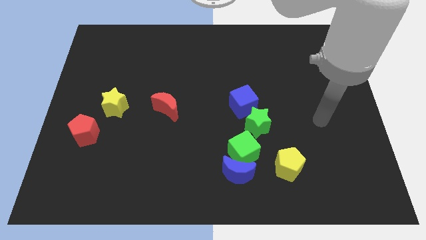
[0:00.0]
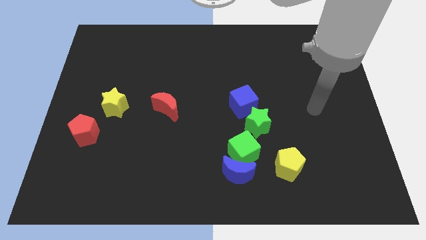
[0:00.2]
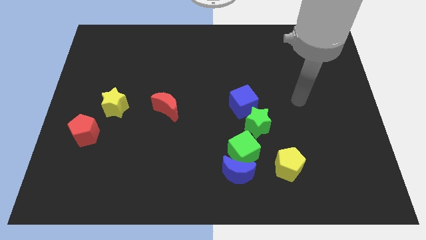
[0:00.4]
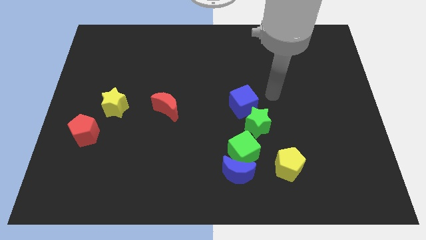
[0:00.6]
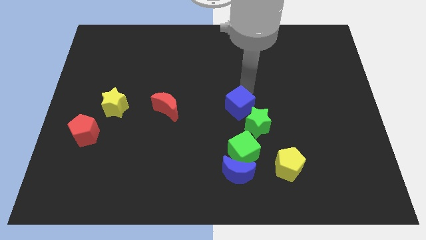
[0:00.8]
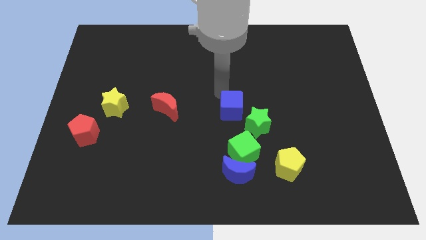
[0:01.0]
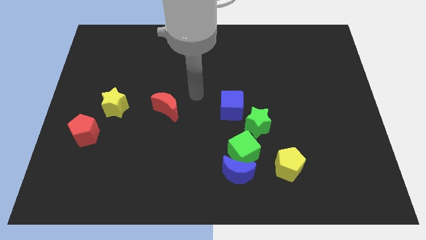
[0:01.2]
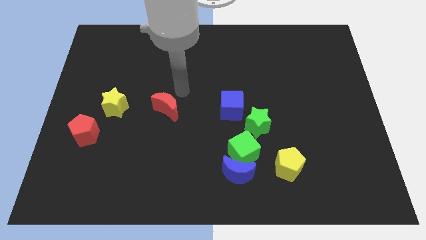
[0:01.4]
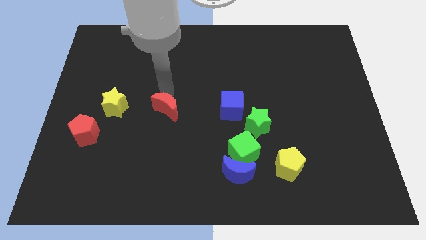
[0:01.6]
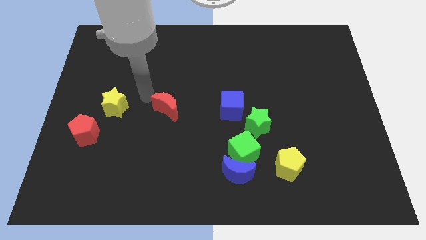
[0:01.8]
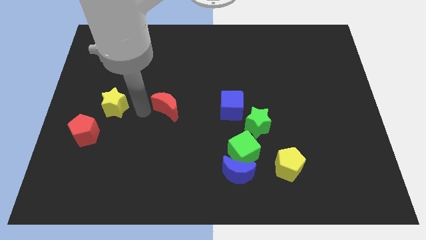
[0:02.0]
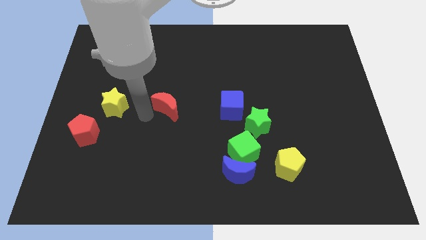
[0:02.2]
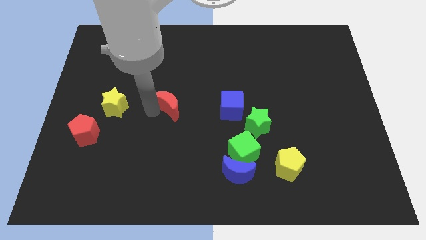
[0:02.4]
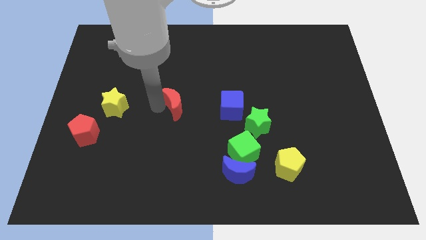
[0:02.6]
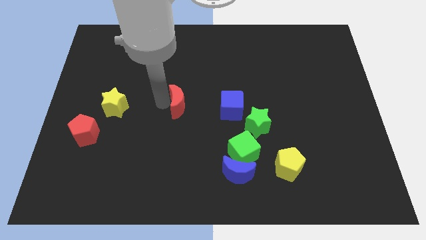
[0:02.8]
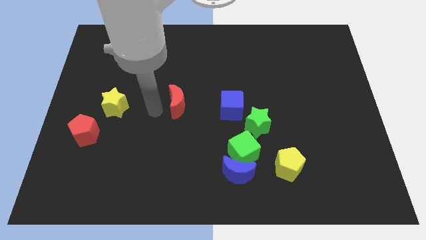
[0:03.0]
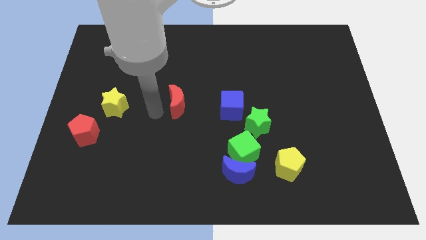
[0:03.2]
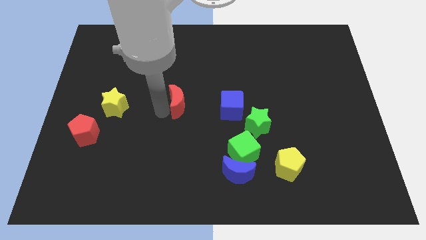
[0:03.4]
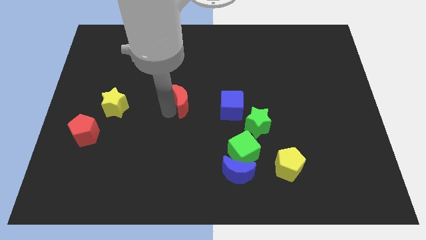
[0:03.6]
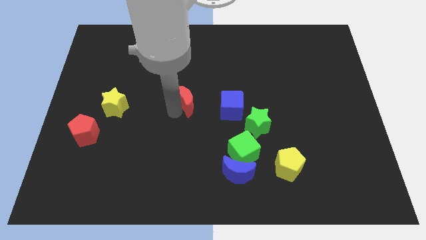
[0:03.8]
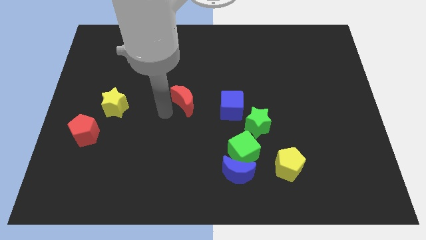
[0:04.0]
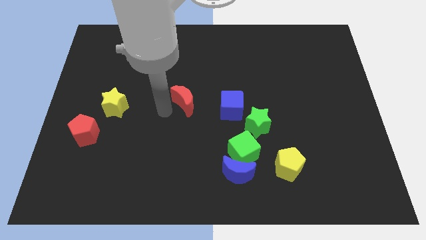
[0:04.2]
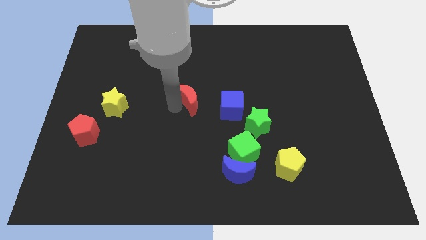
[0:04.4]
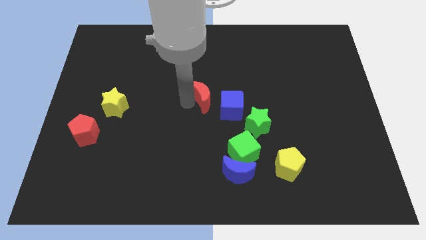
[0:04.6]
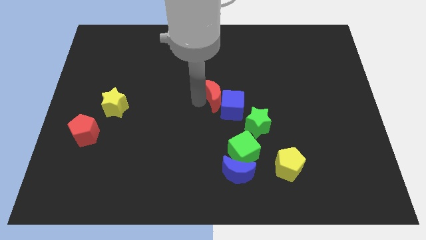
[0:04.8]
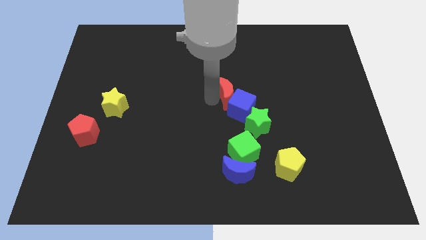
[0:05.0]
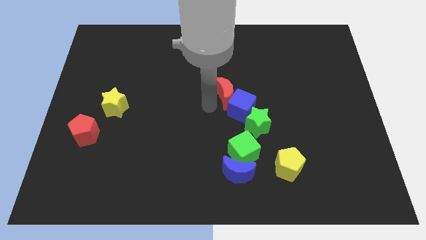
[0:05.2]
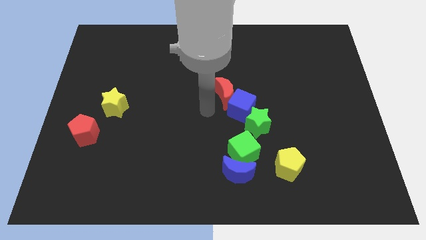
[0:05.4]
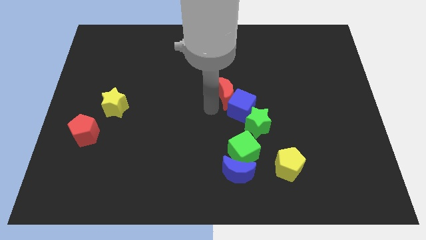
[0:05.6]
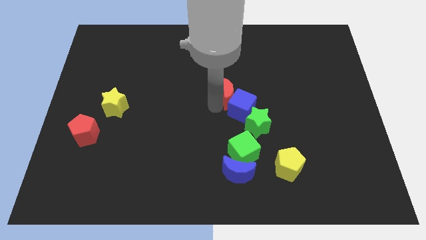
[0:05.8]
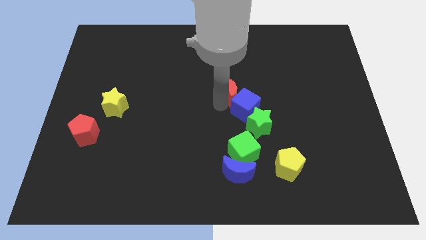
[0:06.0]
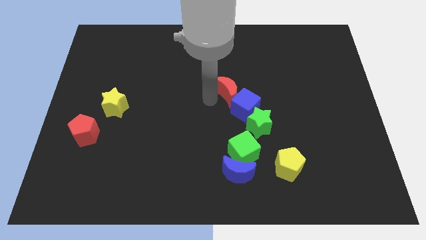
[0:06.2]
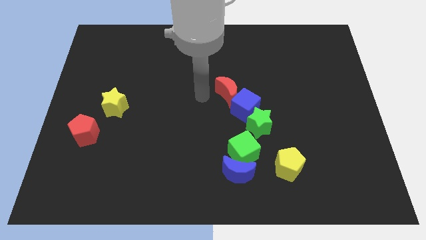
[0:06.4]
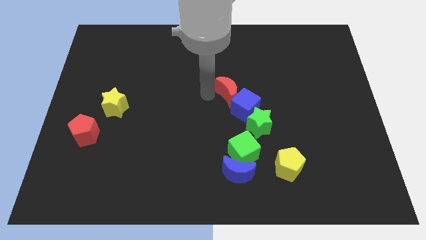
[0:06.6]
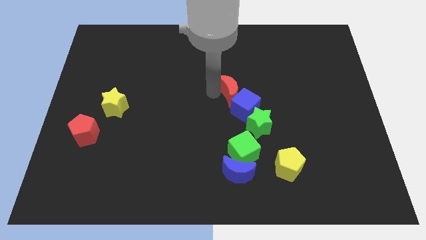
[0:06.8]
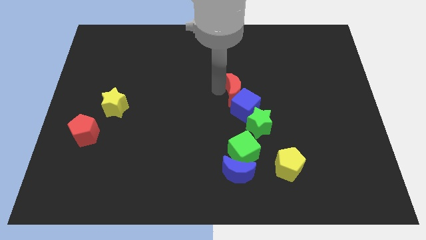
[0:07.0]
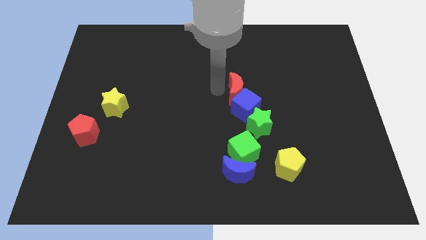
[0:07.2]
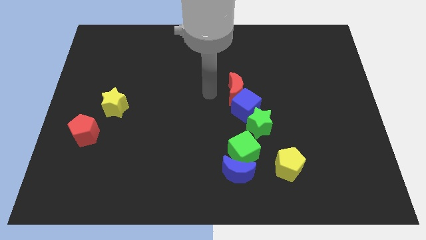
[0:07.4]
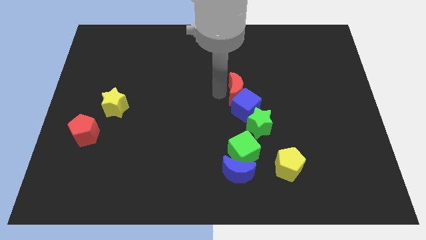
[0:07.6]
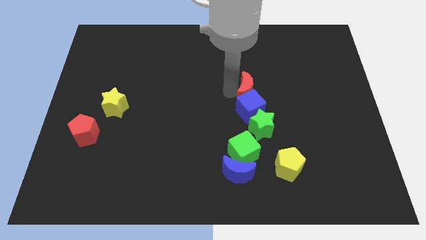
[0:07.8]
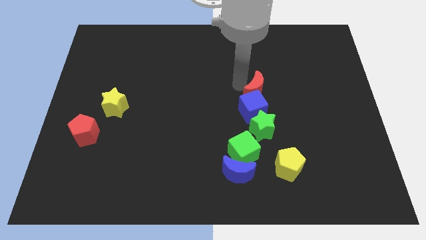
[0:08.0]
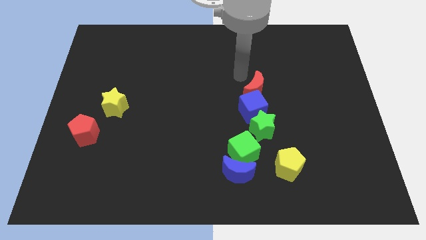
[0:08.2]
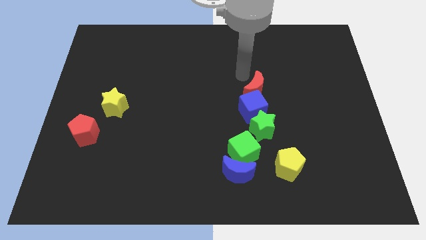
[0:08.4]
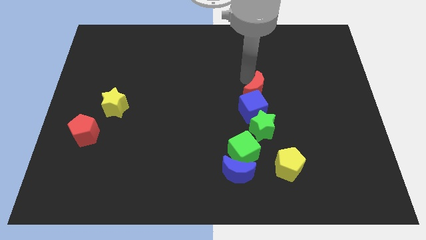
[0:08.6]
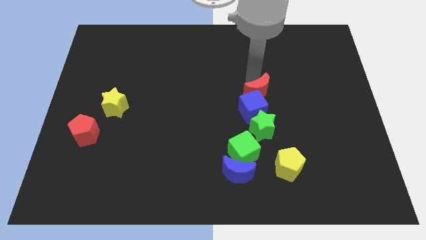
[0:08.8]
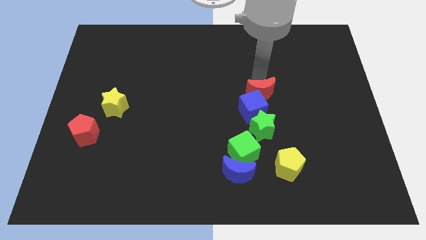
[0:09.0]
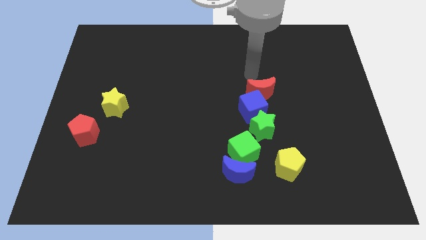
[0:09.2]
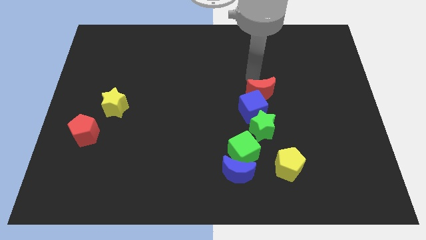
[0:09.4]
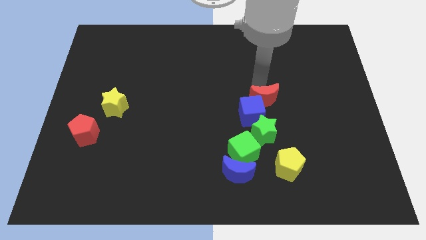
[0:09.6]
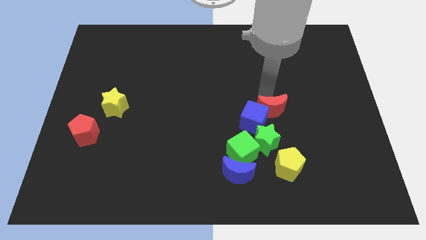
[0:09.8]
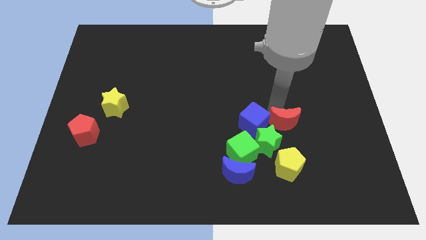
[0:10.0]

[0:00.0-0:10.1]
push the red moon diagonally down and to the right of the blue cube
